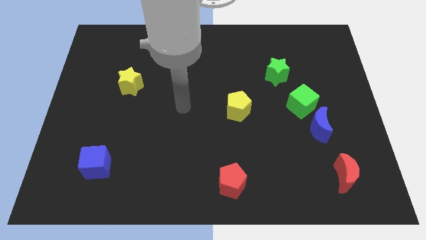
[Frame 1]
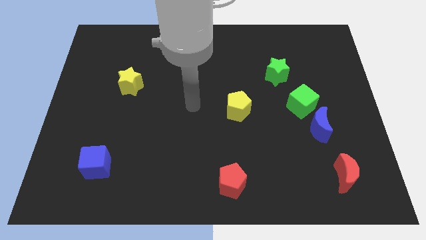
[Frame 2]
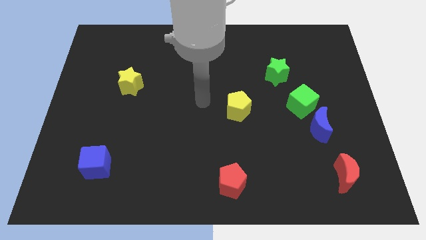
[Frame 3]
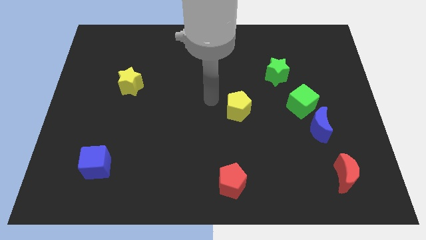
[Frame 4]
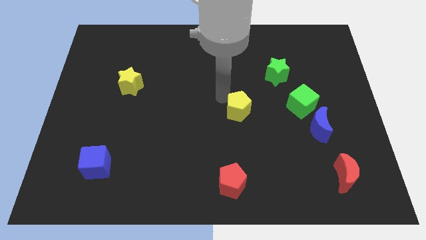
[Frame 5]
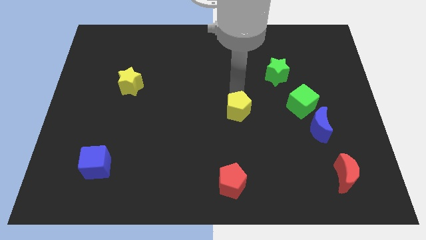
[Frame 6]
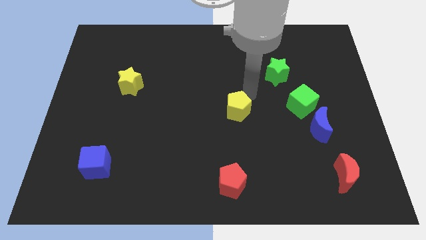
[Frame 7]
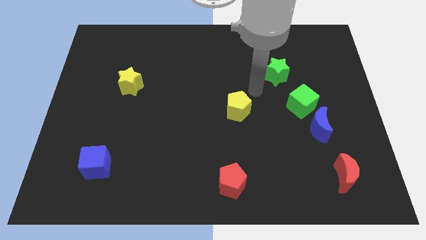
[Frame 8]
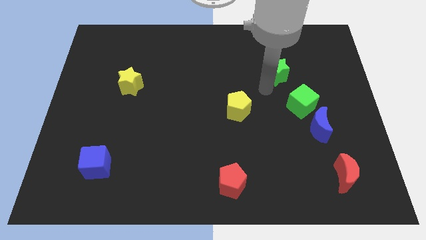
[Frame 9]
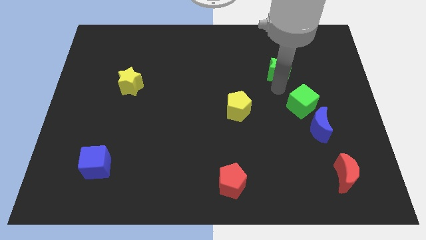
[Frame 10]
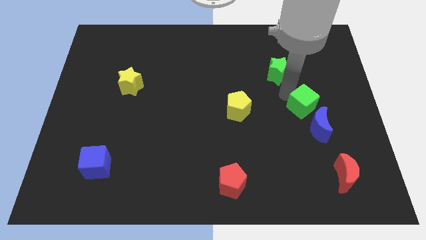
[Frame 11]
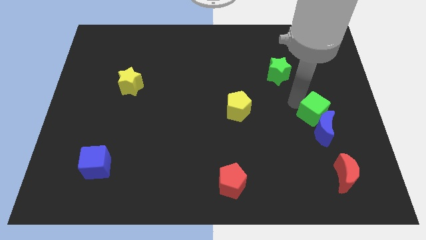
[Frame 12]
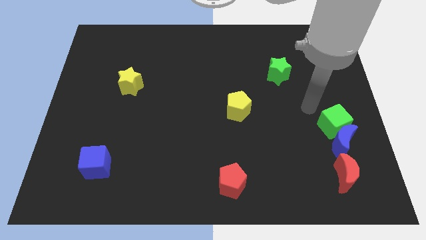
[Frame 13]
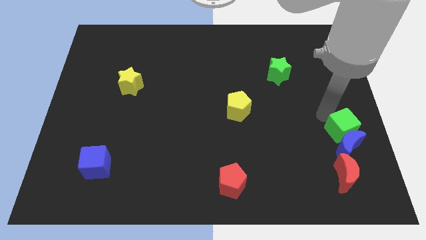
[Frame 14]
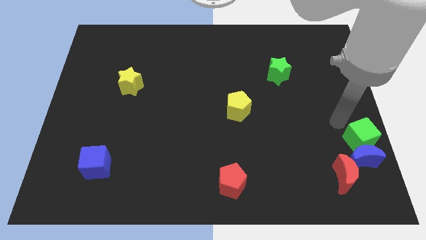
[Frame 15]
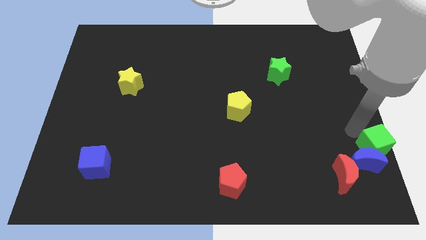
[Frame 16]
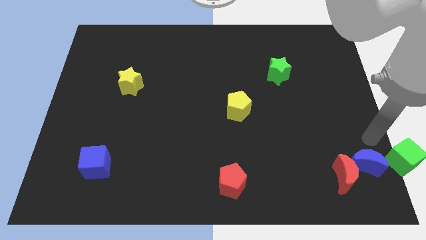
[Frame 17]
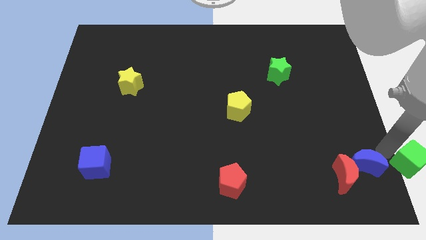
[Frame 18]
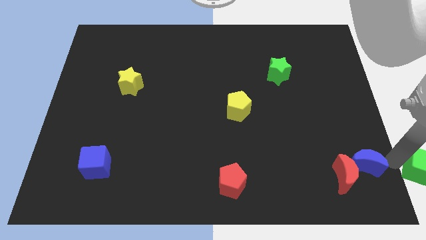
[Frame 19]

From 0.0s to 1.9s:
separate the blue moon from the green cube

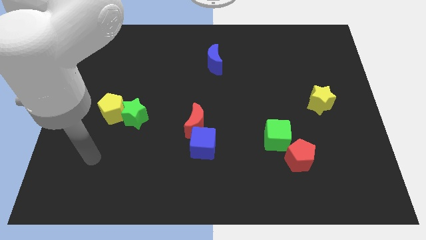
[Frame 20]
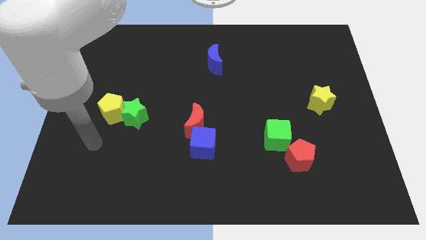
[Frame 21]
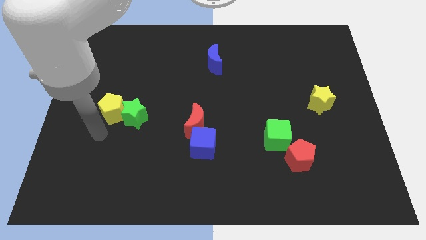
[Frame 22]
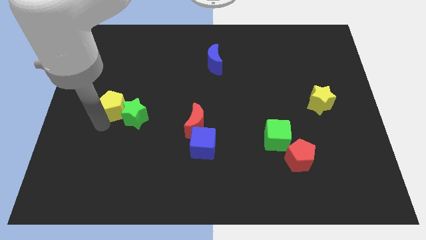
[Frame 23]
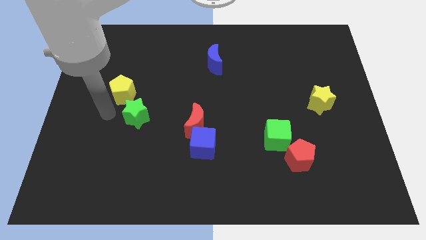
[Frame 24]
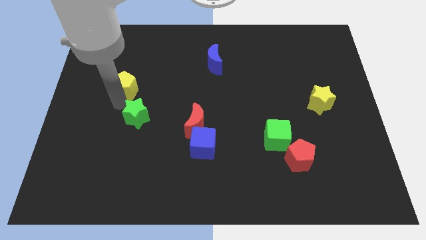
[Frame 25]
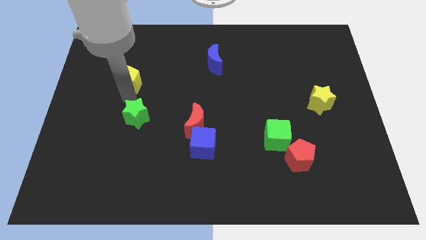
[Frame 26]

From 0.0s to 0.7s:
separate the green star from the yellow pentagon

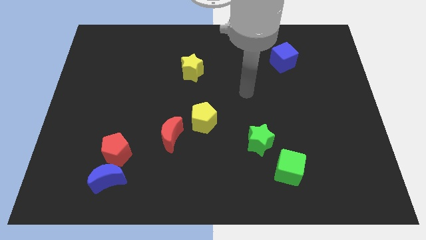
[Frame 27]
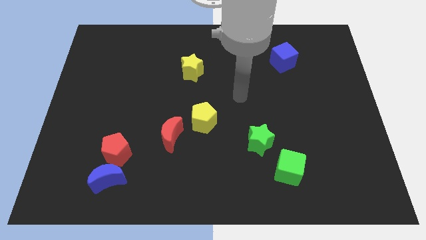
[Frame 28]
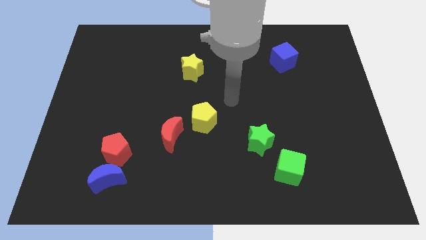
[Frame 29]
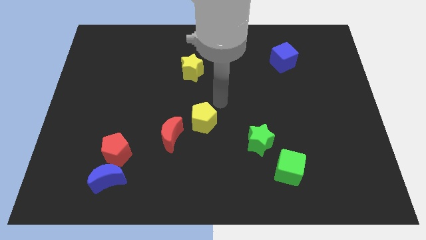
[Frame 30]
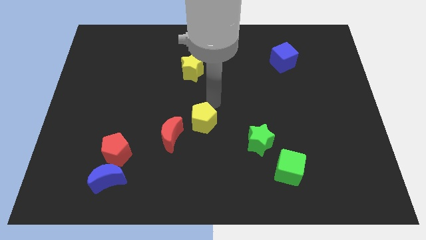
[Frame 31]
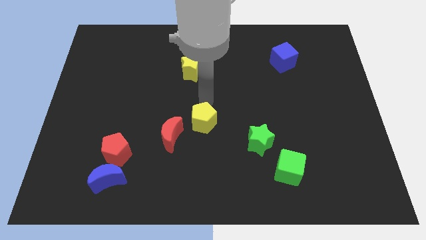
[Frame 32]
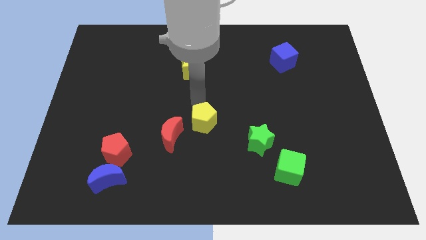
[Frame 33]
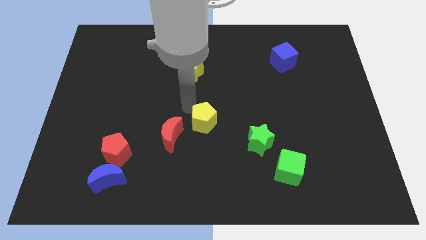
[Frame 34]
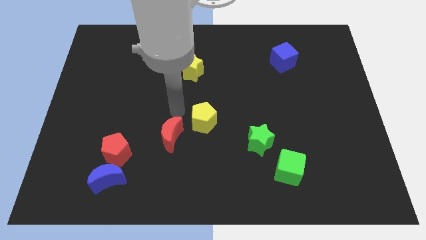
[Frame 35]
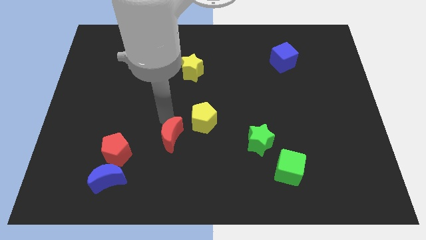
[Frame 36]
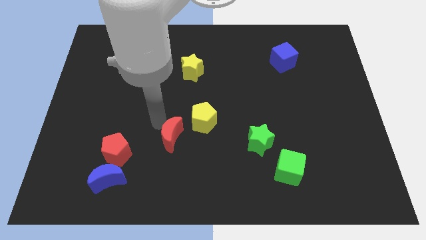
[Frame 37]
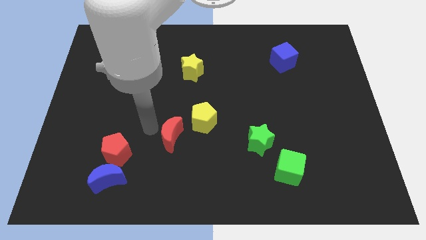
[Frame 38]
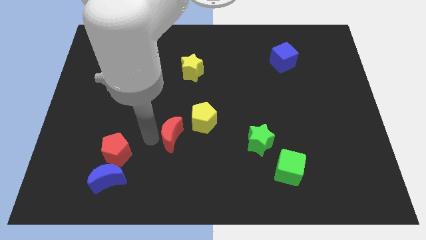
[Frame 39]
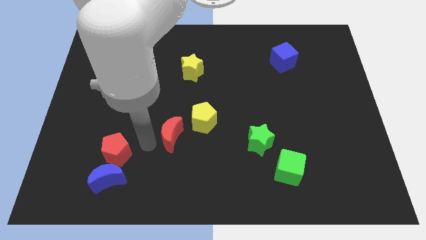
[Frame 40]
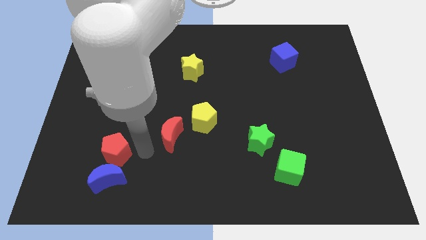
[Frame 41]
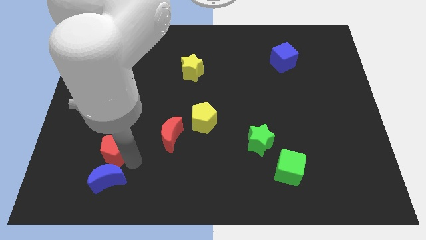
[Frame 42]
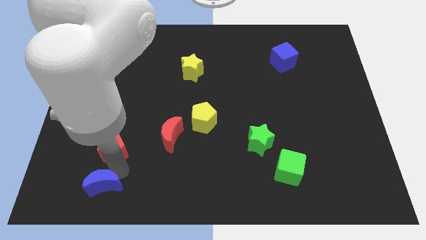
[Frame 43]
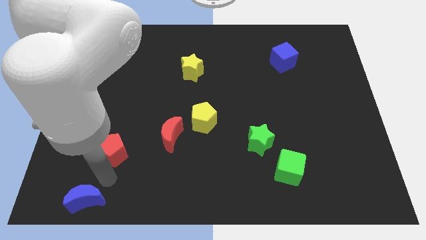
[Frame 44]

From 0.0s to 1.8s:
pull the red pentagon apart from the blue moon

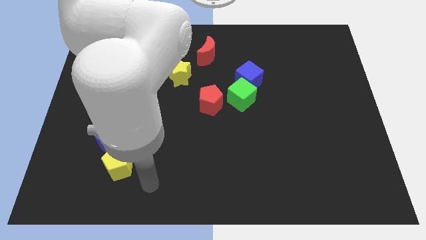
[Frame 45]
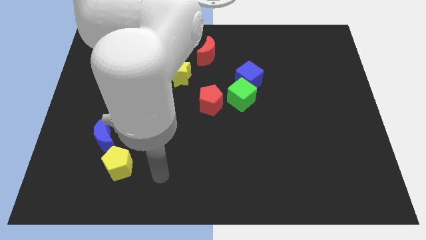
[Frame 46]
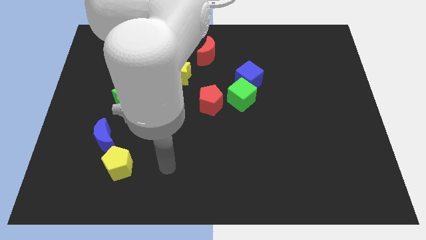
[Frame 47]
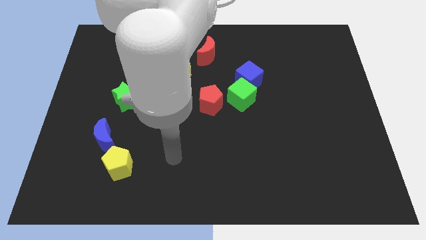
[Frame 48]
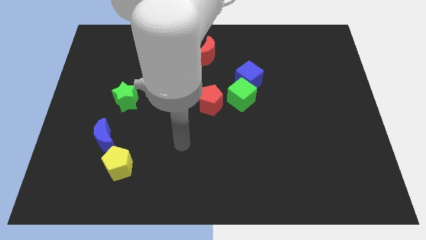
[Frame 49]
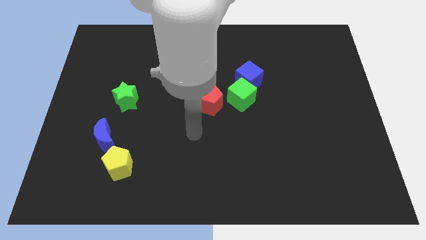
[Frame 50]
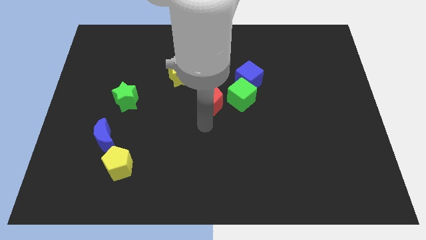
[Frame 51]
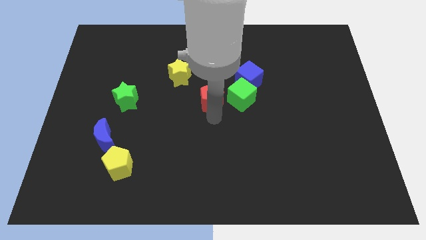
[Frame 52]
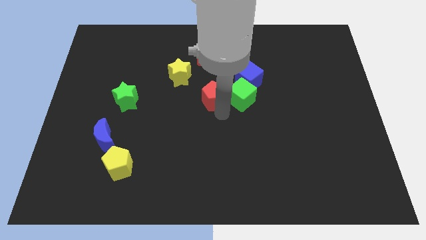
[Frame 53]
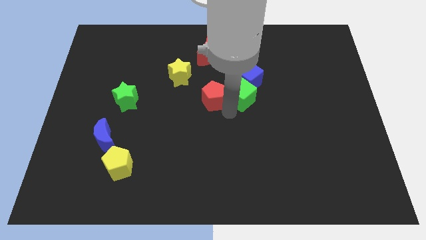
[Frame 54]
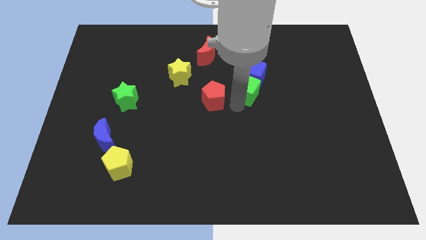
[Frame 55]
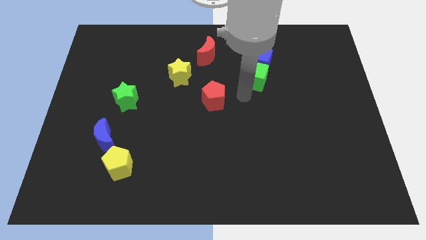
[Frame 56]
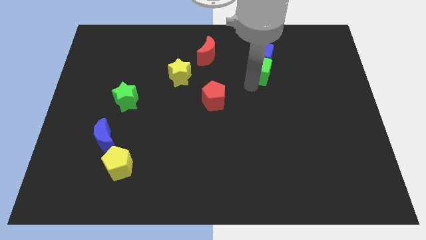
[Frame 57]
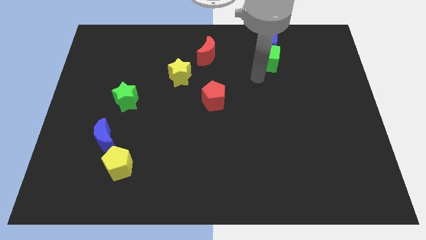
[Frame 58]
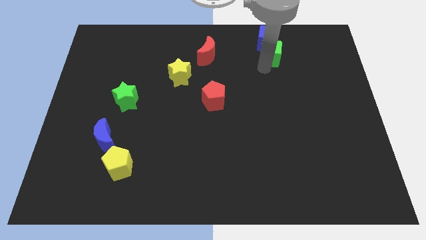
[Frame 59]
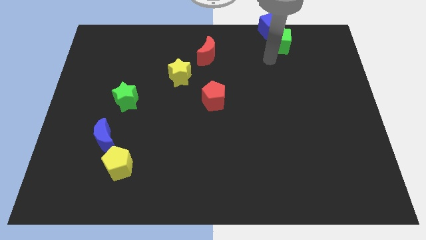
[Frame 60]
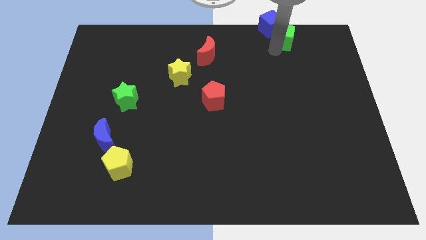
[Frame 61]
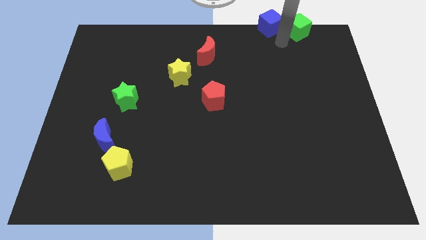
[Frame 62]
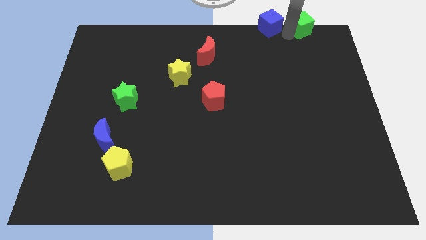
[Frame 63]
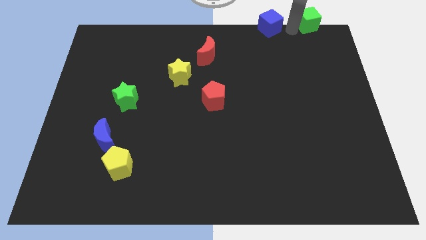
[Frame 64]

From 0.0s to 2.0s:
pull the blue cube apart from the green cube

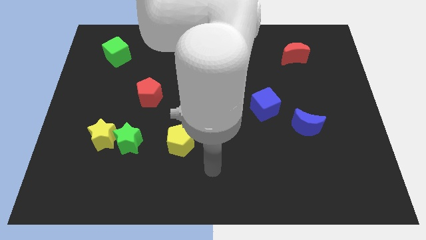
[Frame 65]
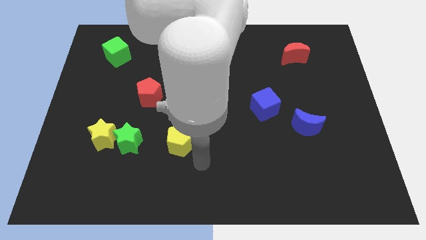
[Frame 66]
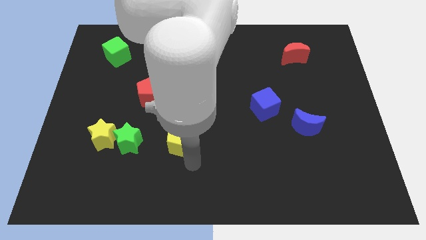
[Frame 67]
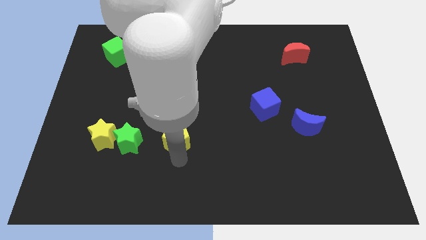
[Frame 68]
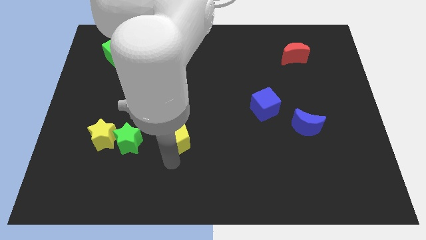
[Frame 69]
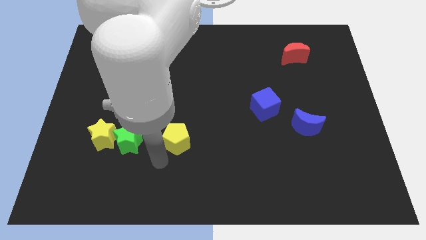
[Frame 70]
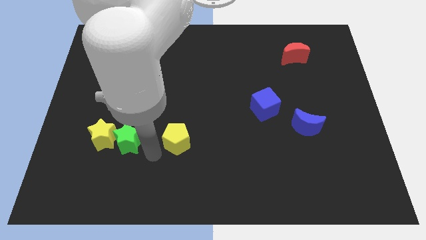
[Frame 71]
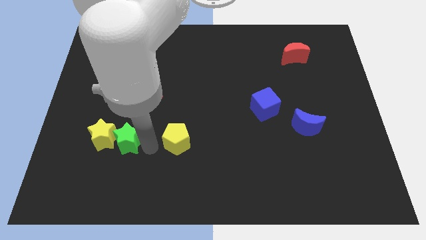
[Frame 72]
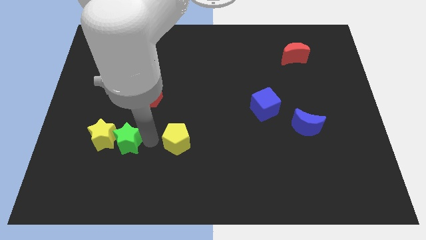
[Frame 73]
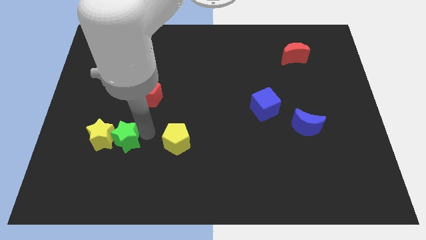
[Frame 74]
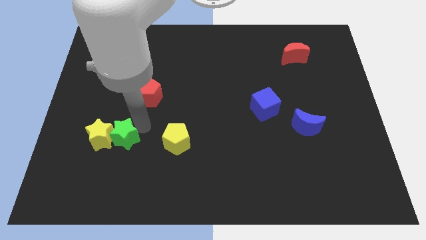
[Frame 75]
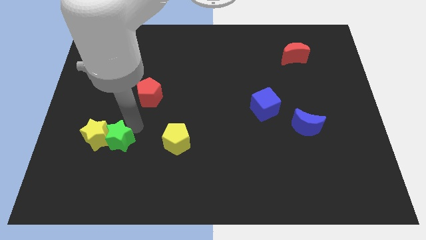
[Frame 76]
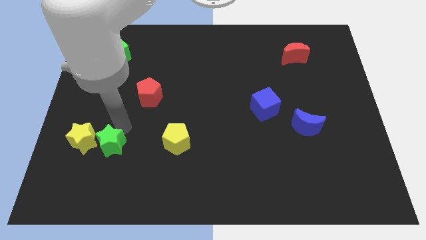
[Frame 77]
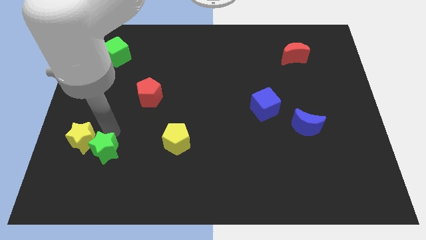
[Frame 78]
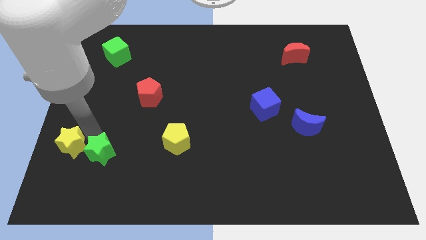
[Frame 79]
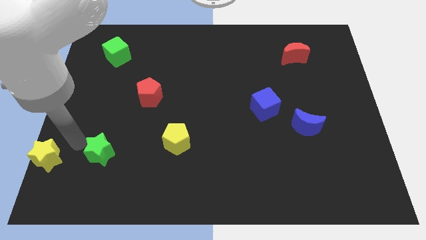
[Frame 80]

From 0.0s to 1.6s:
move the green star away from the yellow star

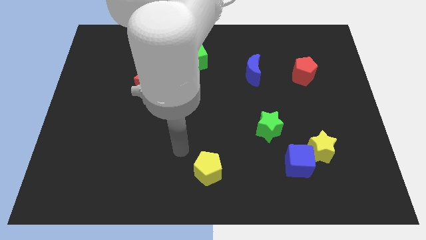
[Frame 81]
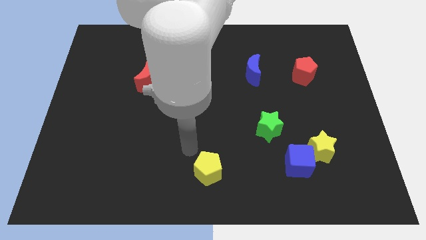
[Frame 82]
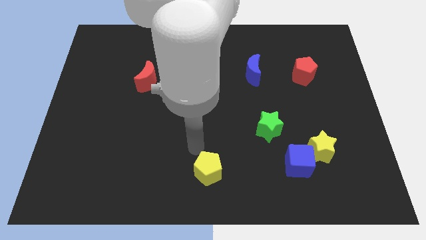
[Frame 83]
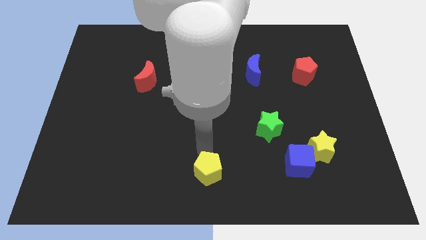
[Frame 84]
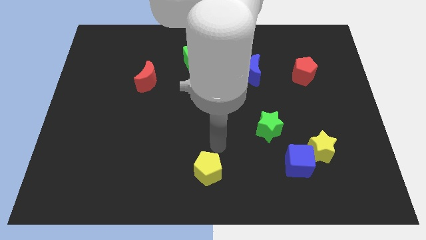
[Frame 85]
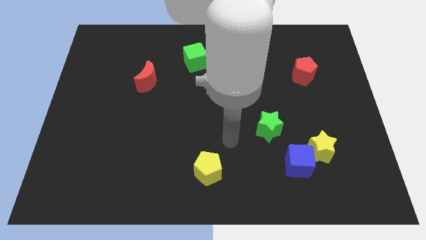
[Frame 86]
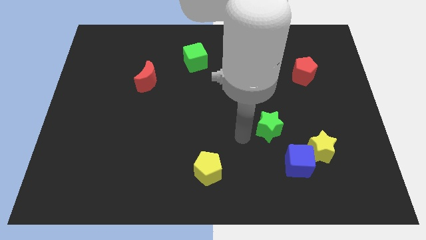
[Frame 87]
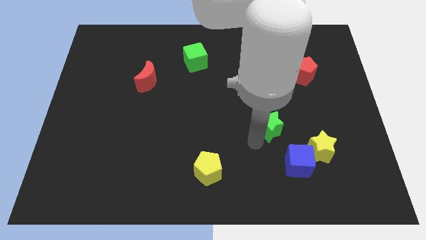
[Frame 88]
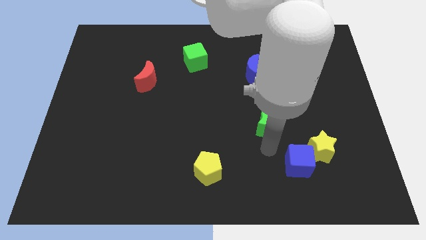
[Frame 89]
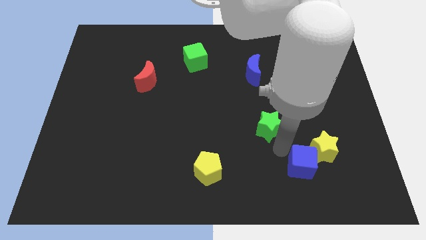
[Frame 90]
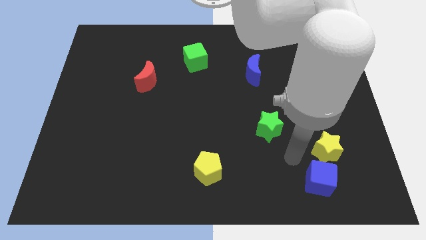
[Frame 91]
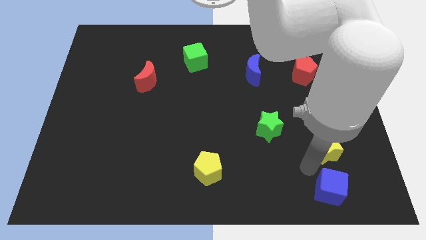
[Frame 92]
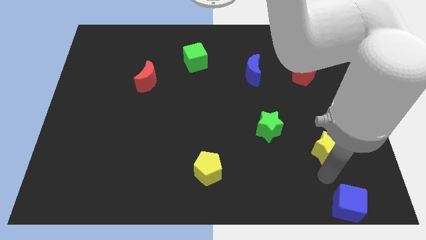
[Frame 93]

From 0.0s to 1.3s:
pull the yellow star apart from the blue cube

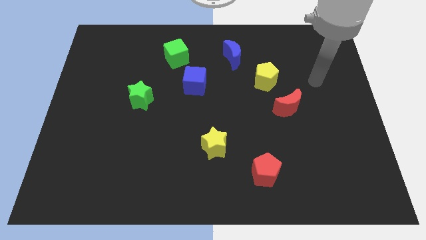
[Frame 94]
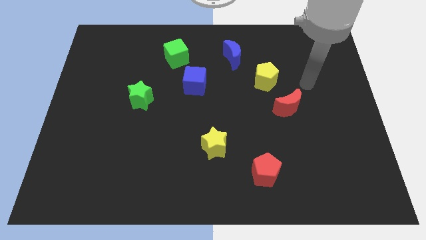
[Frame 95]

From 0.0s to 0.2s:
pull the red moon apart from the yellow pentagon
